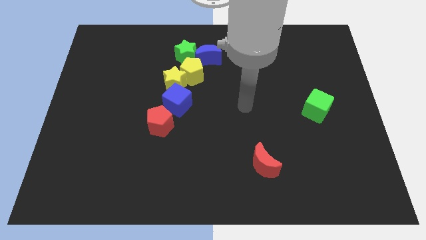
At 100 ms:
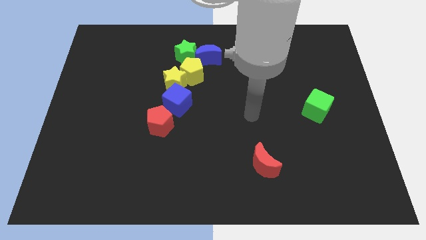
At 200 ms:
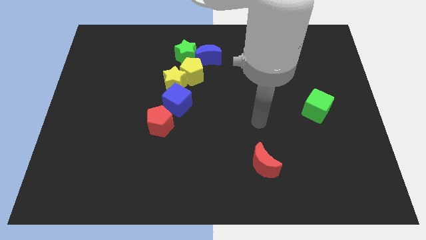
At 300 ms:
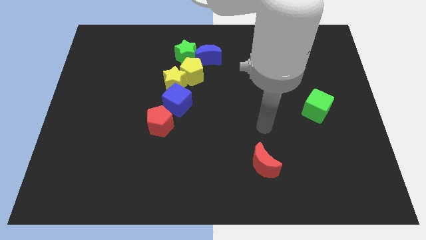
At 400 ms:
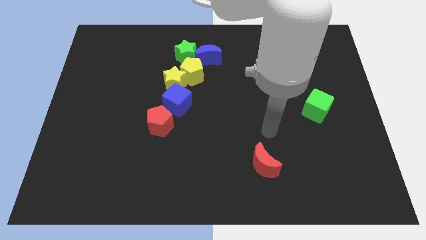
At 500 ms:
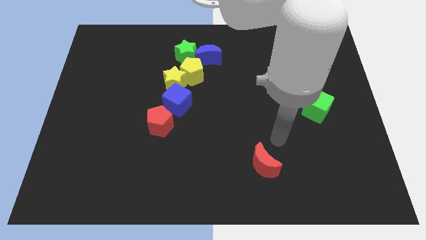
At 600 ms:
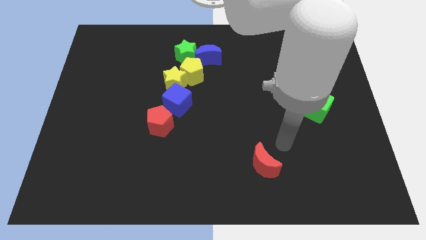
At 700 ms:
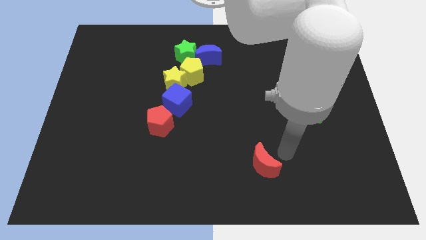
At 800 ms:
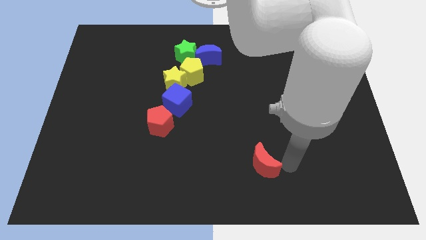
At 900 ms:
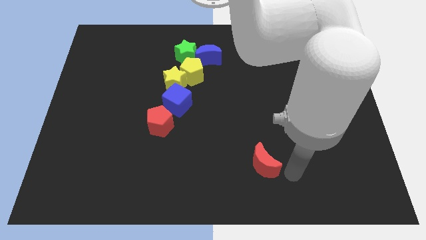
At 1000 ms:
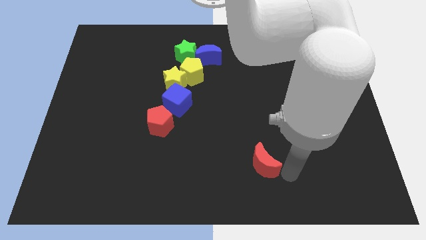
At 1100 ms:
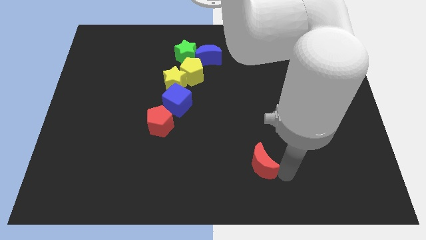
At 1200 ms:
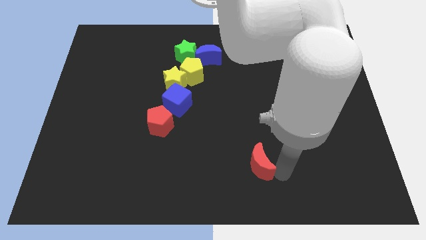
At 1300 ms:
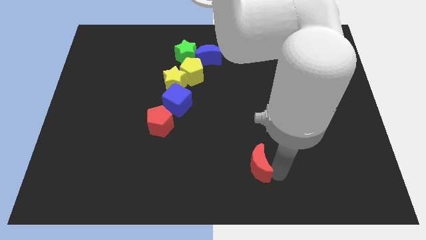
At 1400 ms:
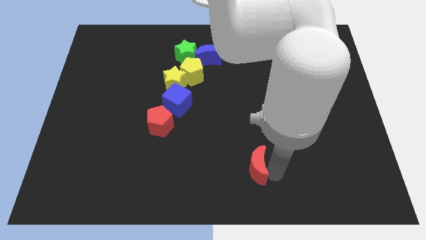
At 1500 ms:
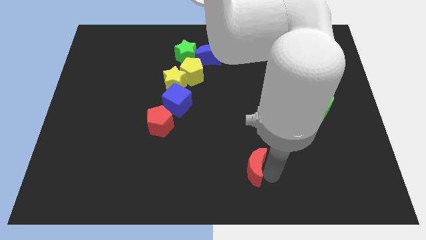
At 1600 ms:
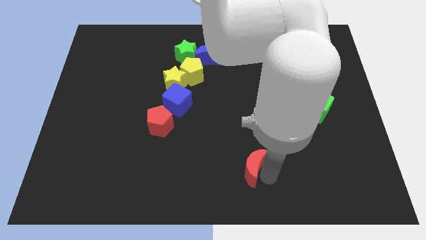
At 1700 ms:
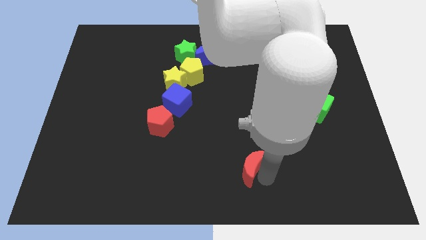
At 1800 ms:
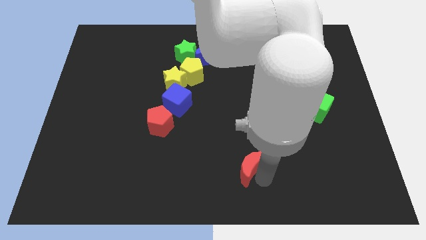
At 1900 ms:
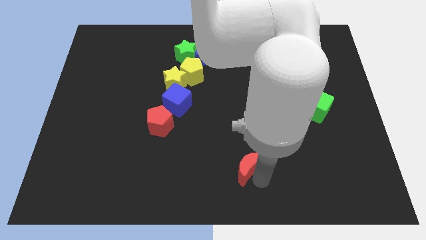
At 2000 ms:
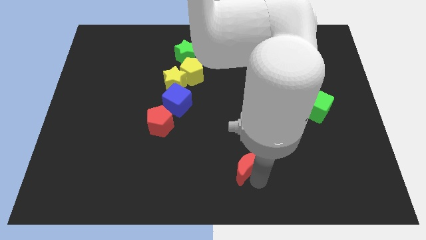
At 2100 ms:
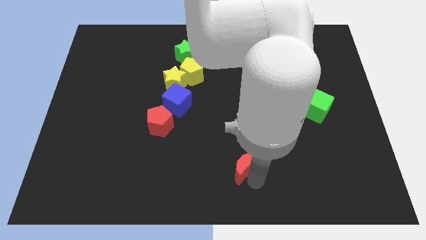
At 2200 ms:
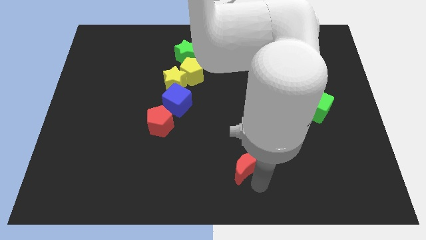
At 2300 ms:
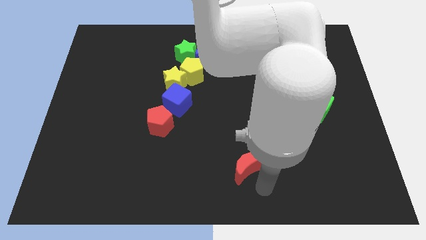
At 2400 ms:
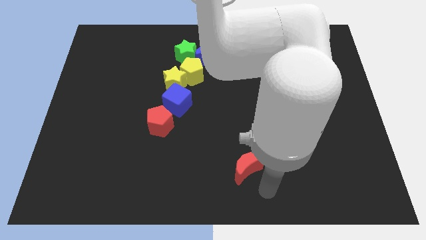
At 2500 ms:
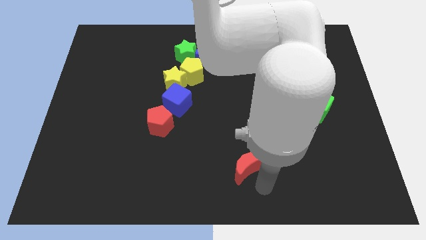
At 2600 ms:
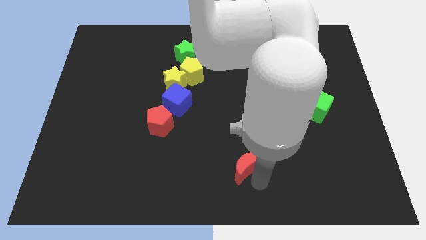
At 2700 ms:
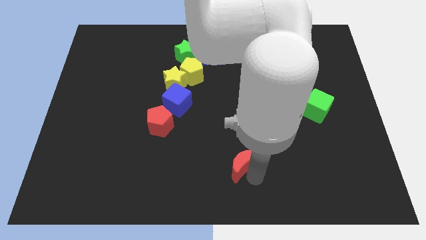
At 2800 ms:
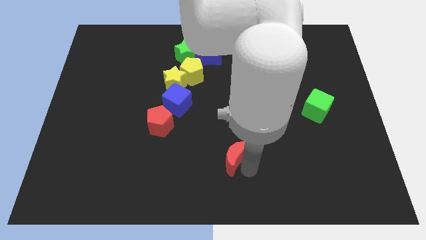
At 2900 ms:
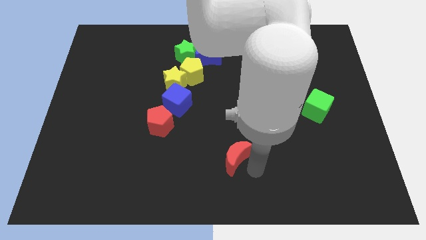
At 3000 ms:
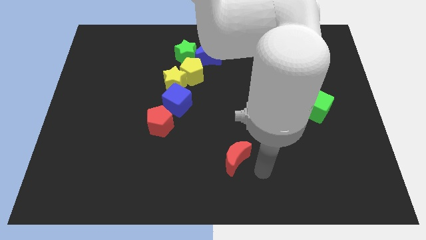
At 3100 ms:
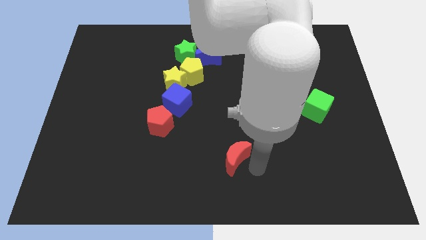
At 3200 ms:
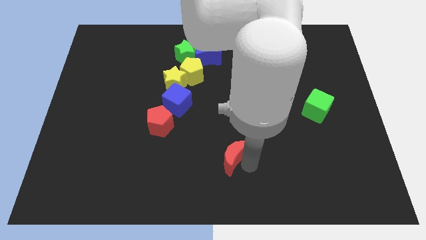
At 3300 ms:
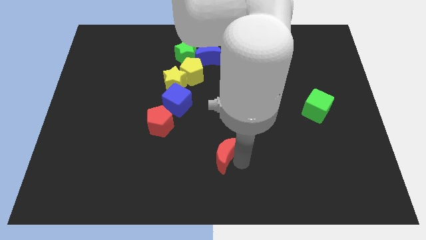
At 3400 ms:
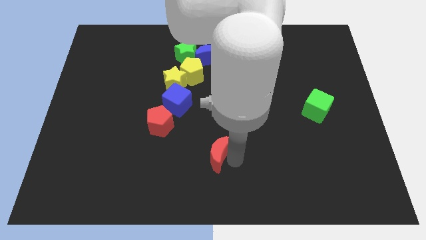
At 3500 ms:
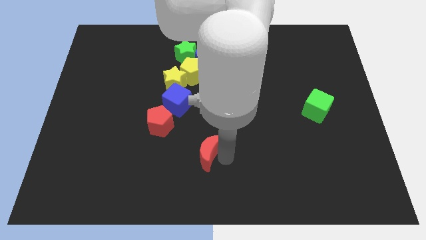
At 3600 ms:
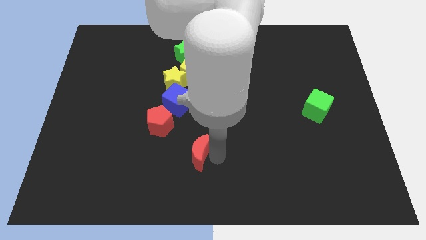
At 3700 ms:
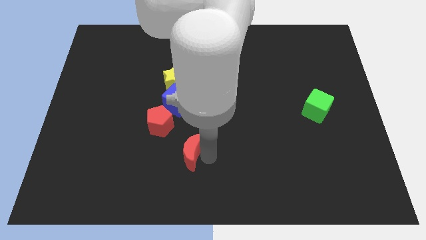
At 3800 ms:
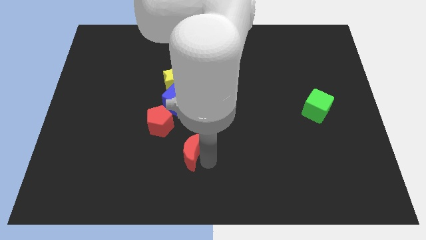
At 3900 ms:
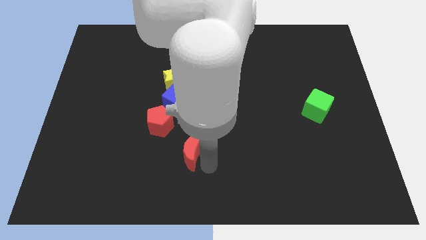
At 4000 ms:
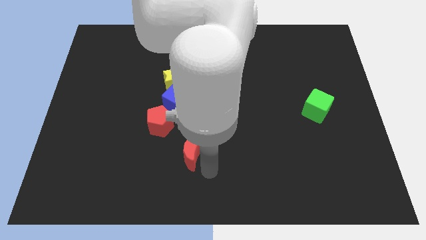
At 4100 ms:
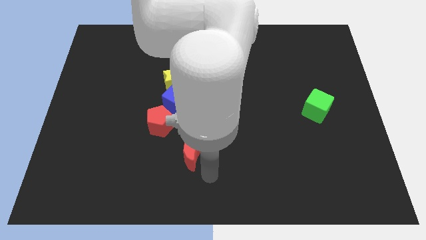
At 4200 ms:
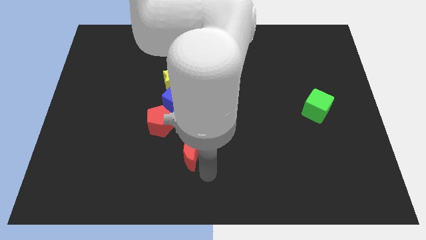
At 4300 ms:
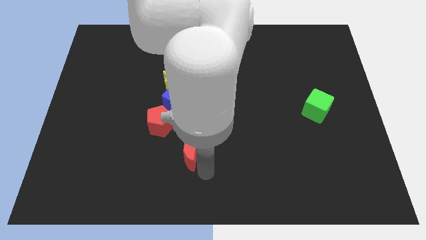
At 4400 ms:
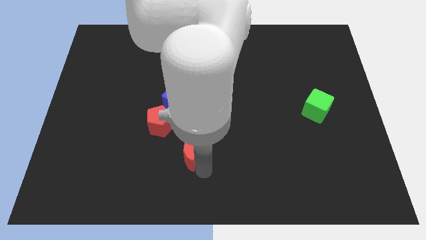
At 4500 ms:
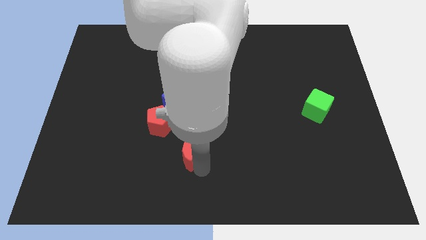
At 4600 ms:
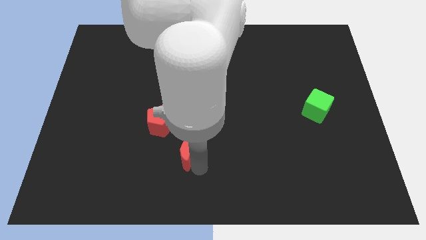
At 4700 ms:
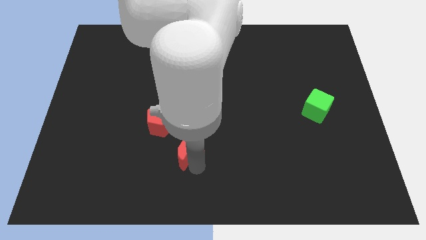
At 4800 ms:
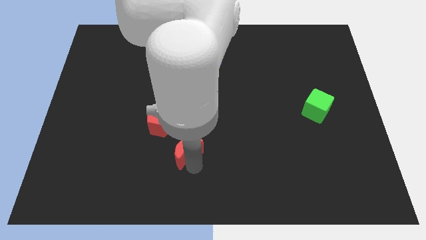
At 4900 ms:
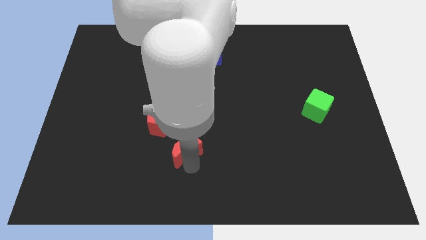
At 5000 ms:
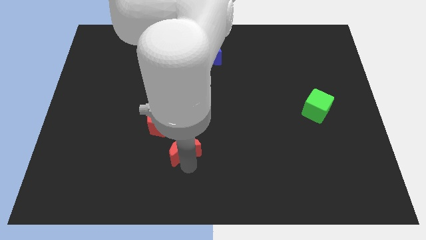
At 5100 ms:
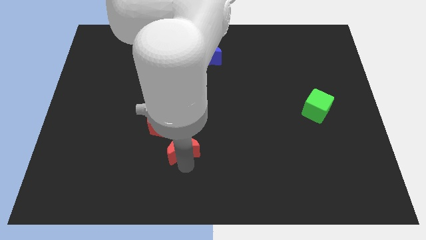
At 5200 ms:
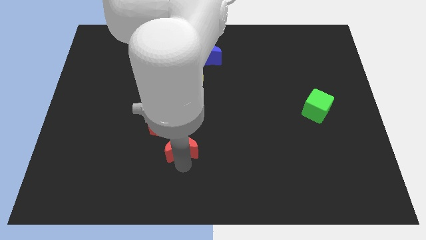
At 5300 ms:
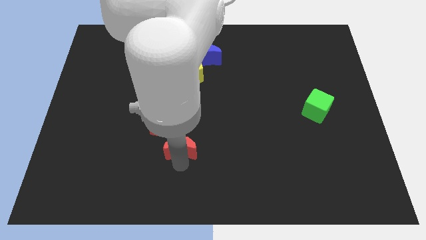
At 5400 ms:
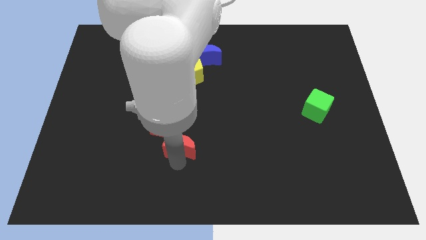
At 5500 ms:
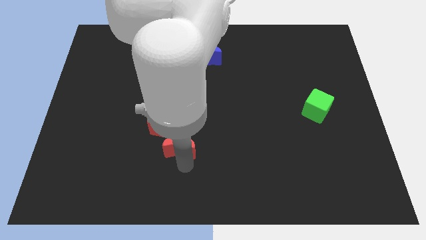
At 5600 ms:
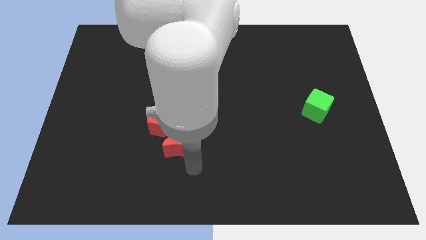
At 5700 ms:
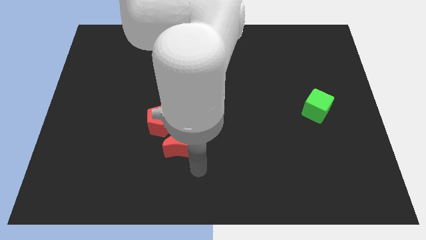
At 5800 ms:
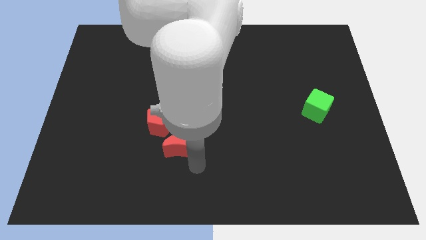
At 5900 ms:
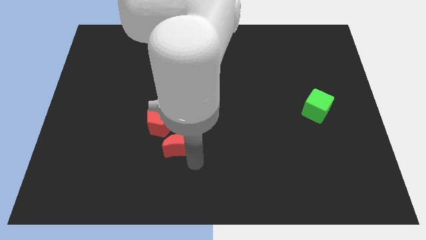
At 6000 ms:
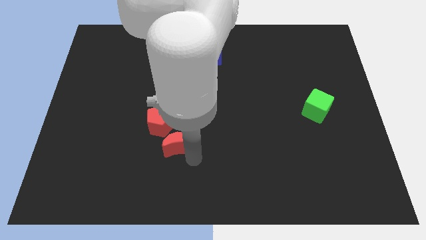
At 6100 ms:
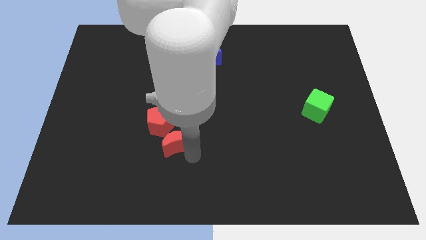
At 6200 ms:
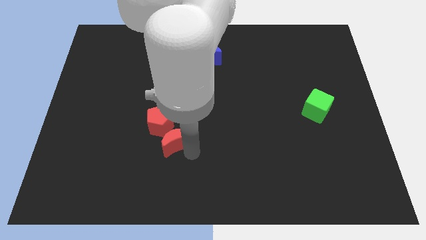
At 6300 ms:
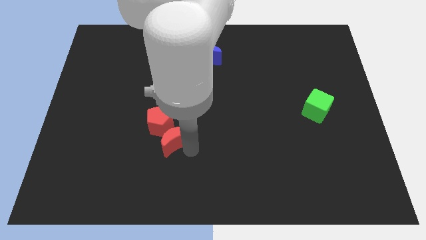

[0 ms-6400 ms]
push the red moon next to the red pentagon

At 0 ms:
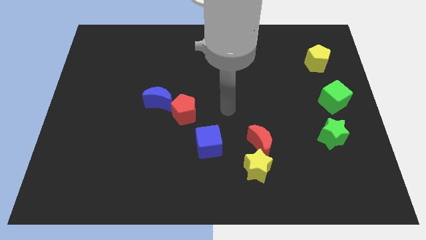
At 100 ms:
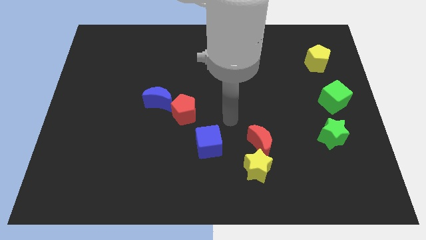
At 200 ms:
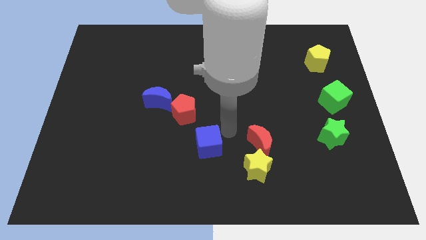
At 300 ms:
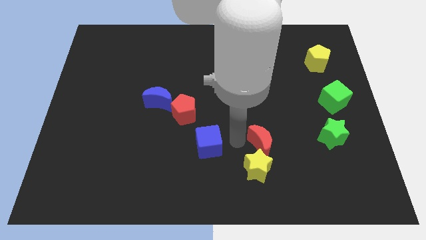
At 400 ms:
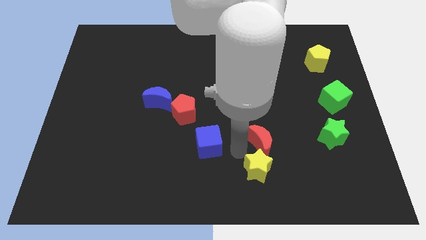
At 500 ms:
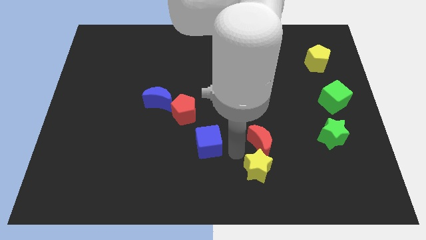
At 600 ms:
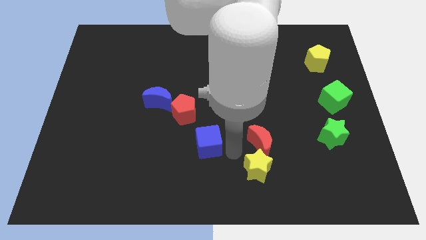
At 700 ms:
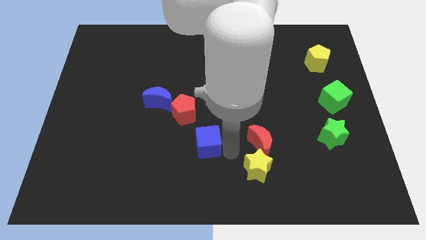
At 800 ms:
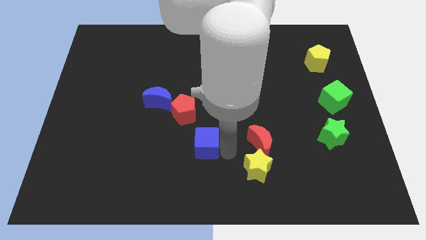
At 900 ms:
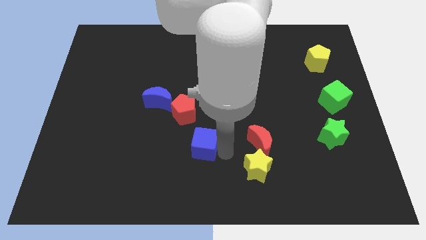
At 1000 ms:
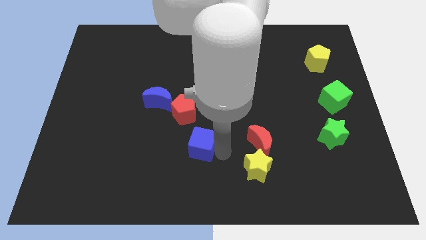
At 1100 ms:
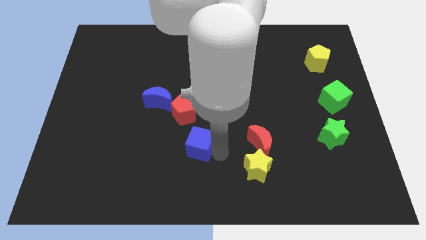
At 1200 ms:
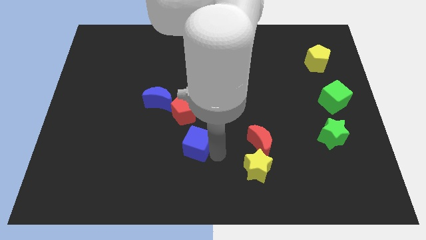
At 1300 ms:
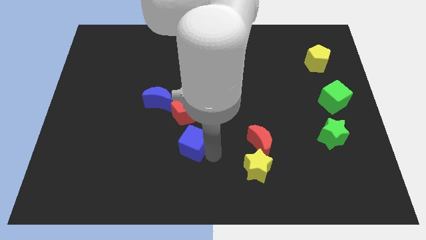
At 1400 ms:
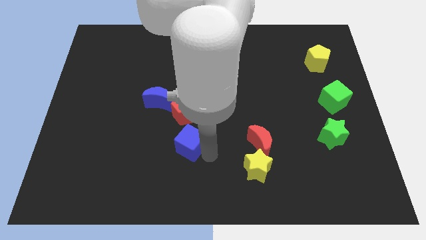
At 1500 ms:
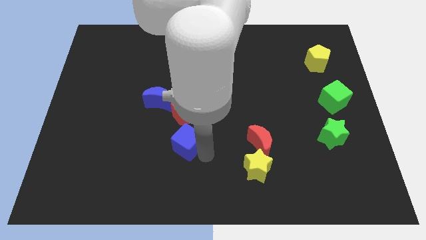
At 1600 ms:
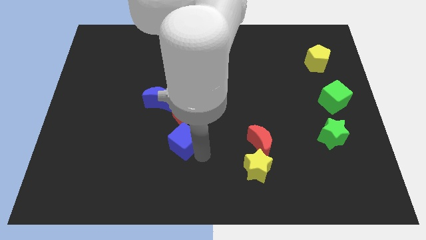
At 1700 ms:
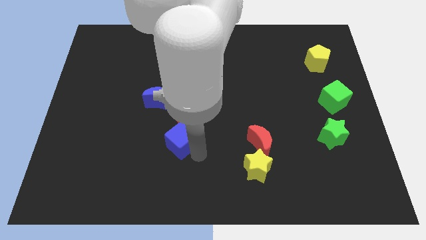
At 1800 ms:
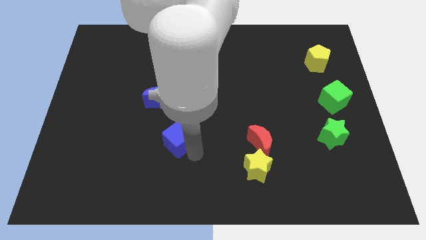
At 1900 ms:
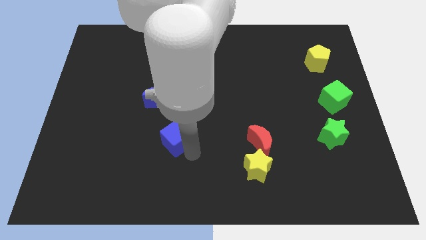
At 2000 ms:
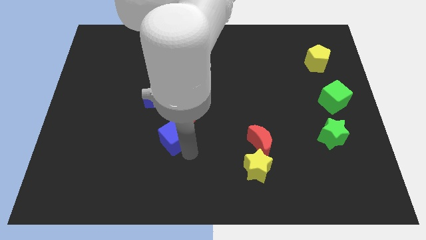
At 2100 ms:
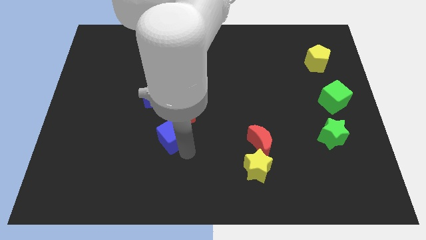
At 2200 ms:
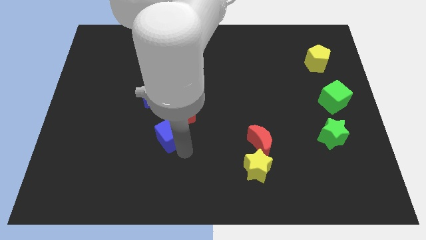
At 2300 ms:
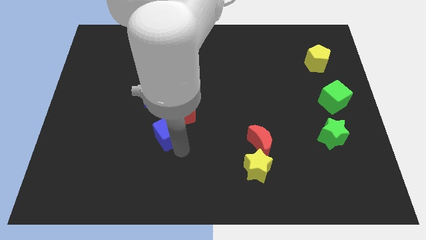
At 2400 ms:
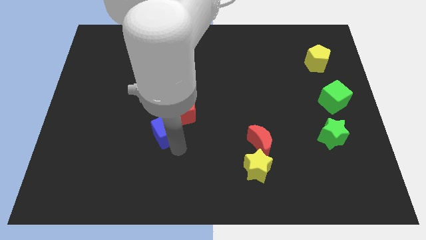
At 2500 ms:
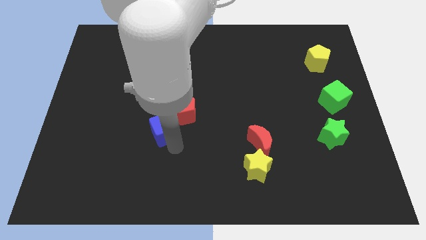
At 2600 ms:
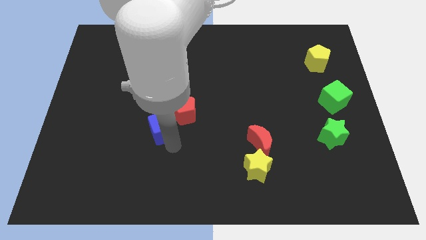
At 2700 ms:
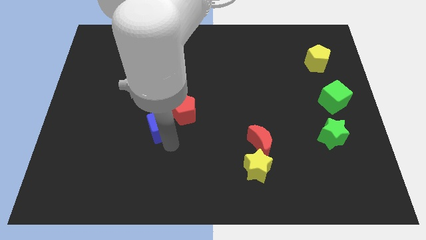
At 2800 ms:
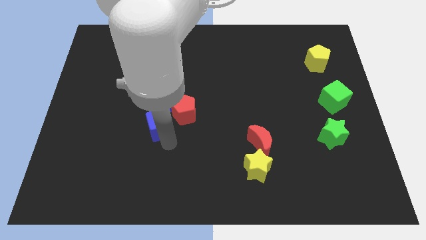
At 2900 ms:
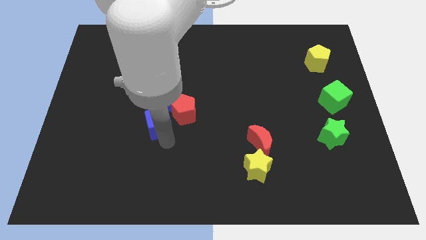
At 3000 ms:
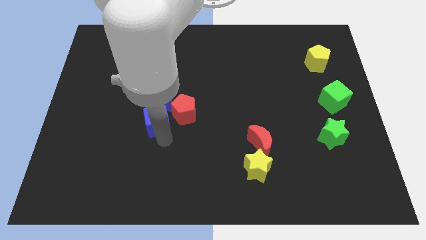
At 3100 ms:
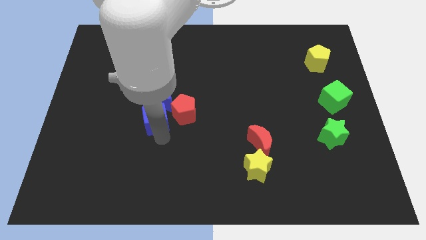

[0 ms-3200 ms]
put the blue cube next to the blue moon
